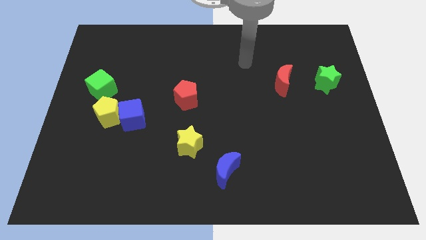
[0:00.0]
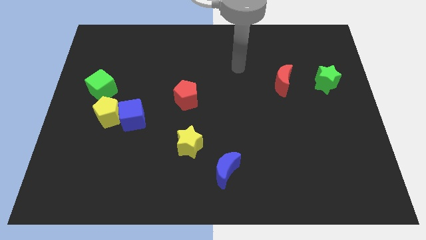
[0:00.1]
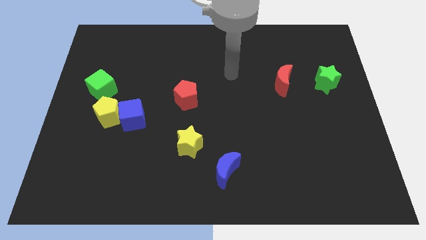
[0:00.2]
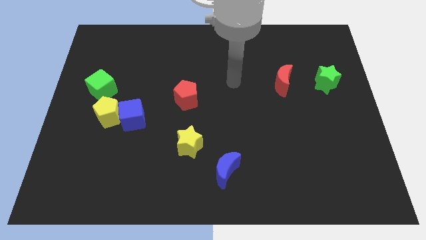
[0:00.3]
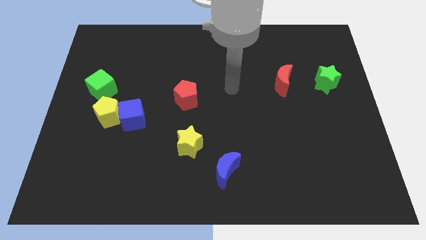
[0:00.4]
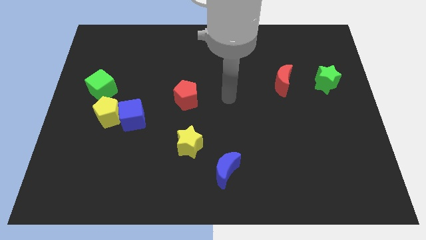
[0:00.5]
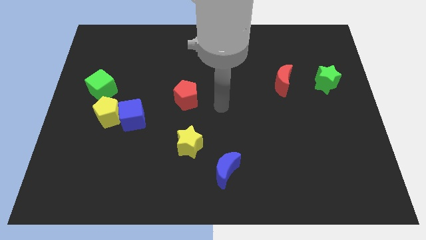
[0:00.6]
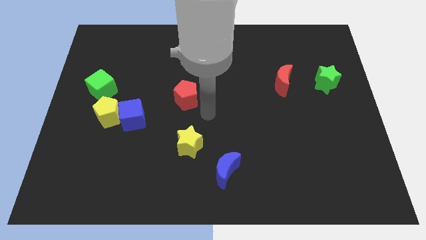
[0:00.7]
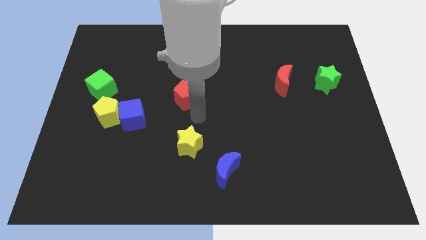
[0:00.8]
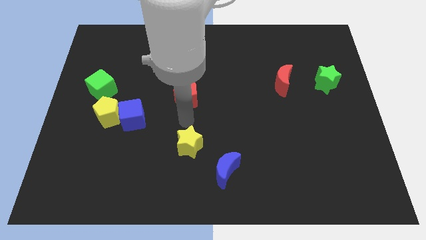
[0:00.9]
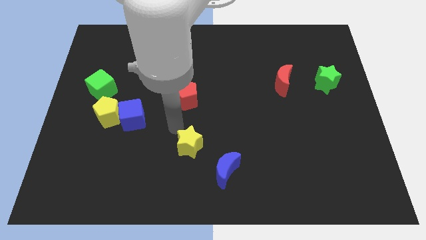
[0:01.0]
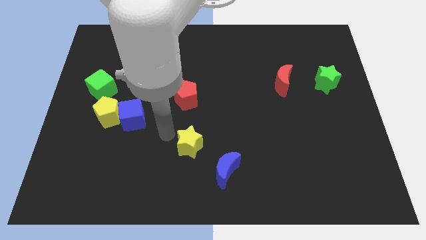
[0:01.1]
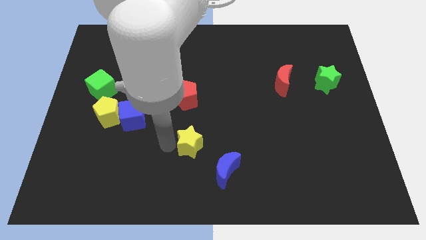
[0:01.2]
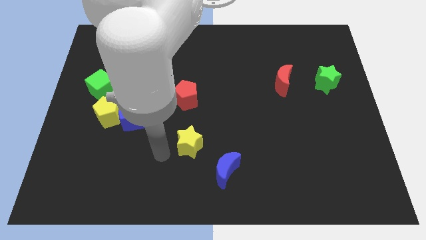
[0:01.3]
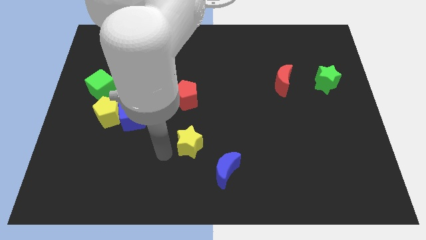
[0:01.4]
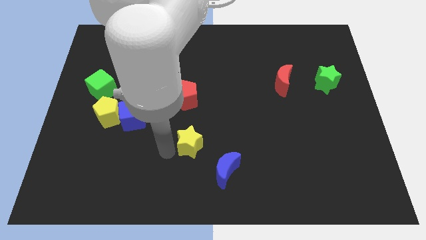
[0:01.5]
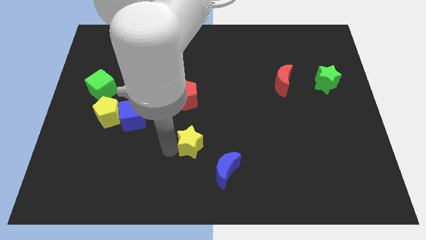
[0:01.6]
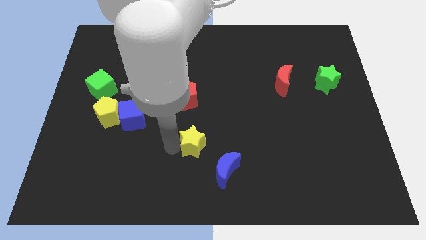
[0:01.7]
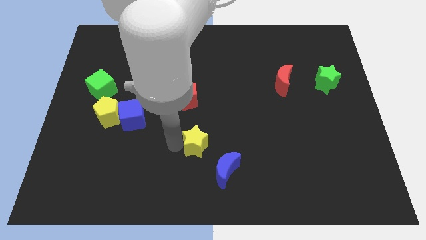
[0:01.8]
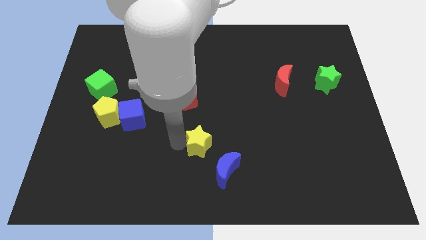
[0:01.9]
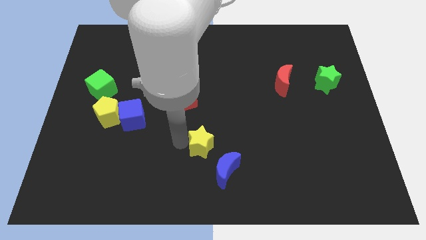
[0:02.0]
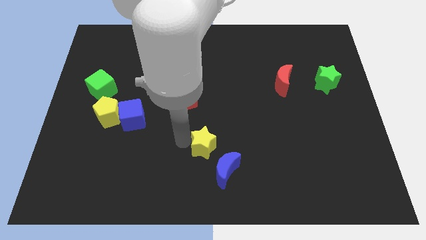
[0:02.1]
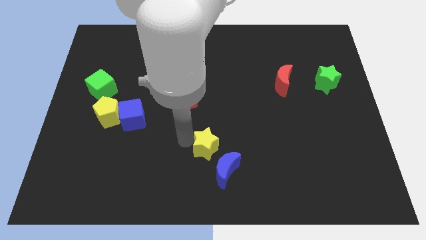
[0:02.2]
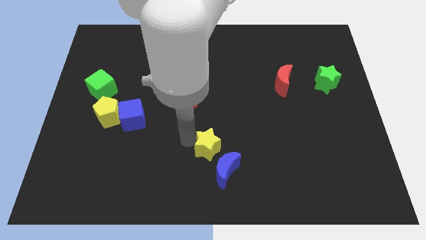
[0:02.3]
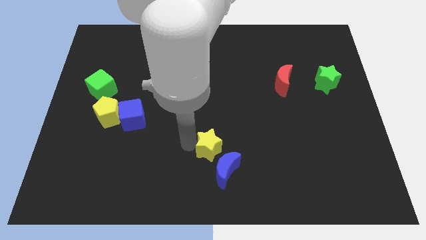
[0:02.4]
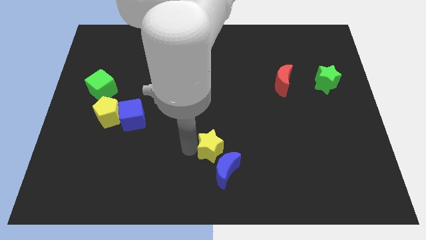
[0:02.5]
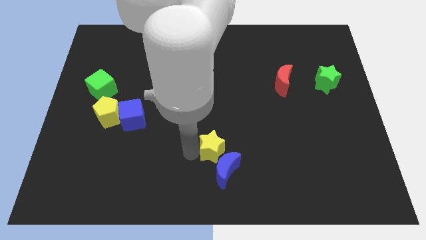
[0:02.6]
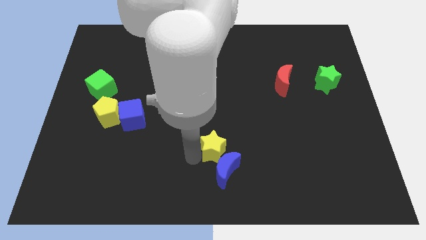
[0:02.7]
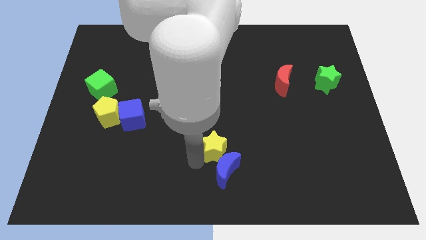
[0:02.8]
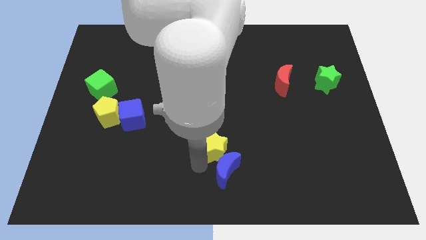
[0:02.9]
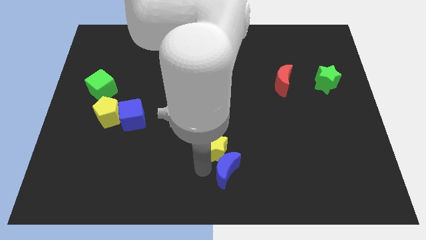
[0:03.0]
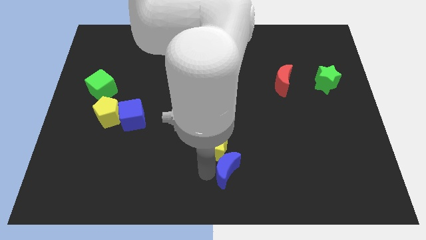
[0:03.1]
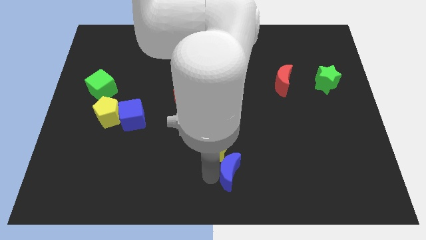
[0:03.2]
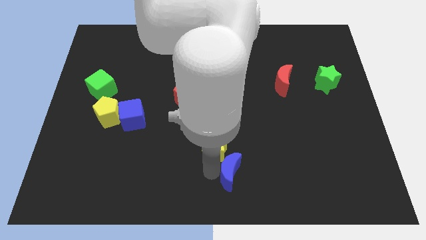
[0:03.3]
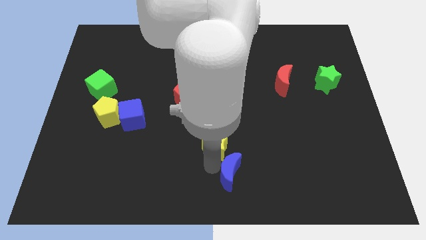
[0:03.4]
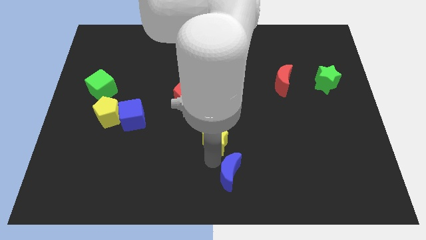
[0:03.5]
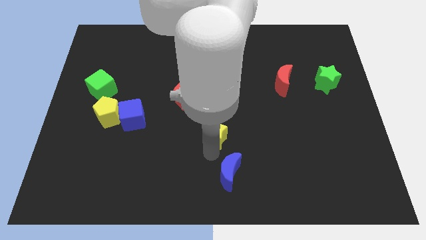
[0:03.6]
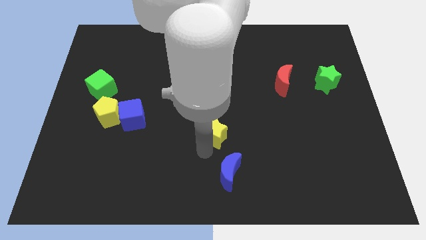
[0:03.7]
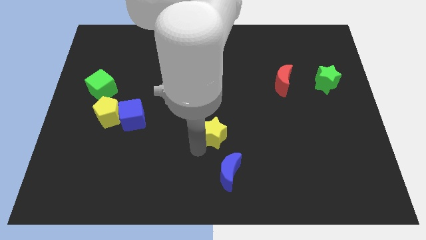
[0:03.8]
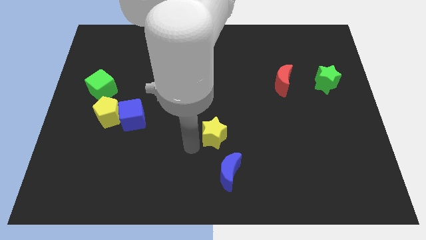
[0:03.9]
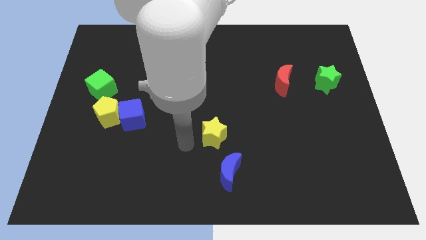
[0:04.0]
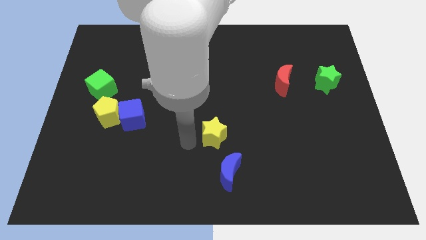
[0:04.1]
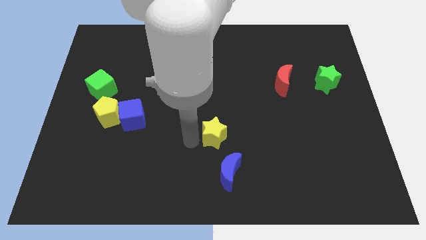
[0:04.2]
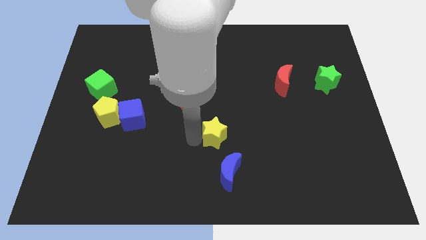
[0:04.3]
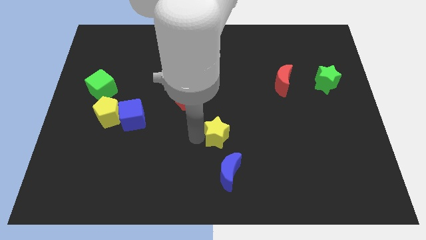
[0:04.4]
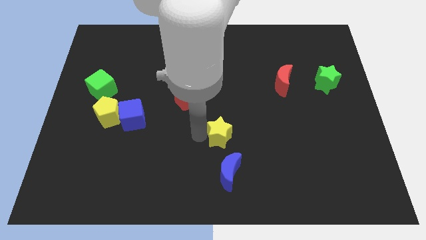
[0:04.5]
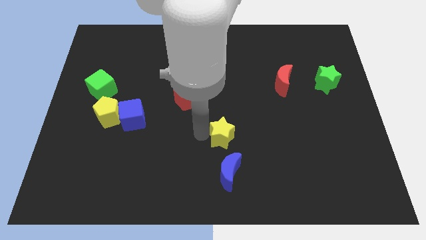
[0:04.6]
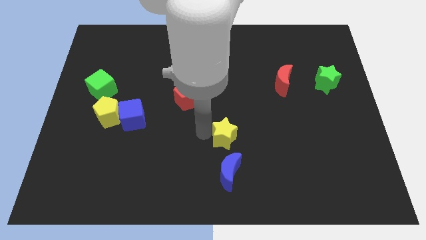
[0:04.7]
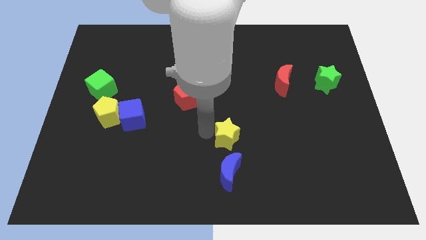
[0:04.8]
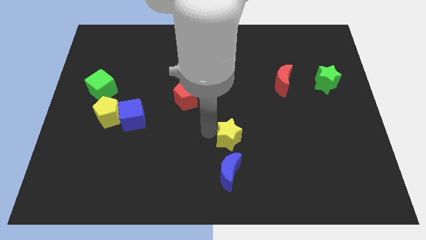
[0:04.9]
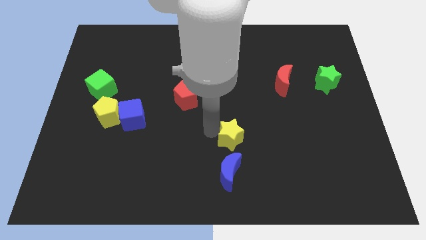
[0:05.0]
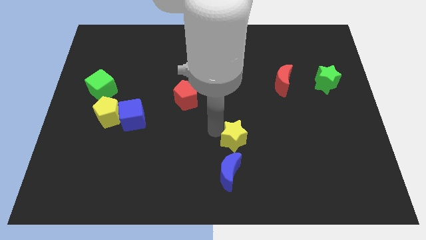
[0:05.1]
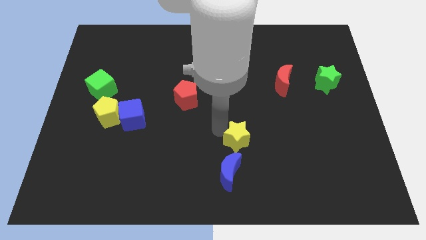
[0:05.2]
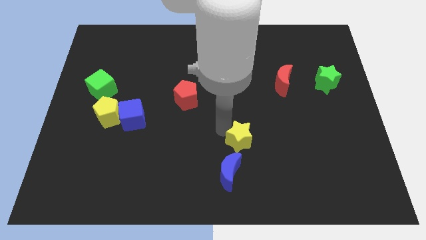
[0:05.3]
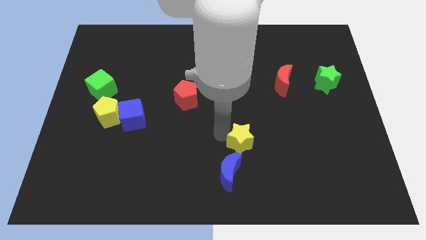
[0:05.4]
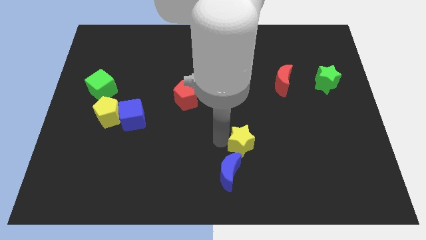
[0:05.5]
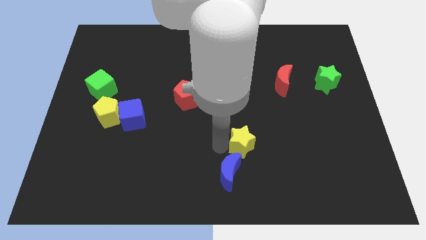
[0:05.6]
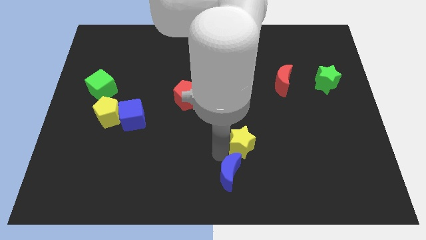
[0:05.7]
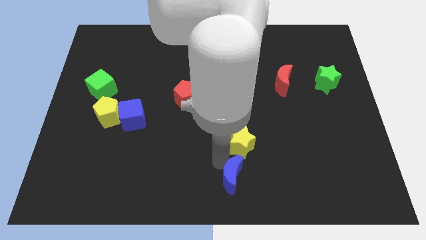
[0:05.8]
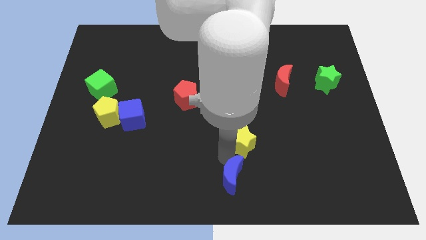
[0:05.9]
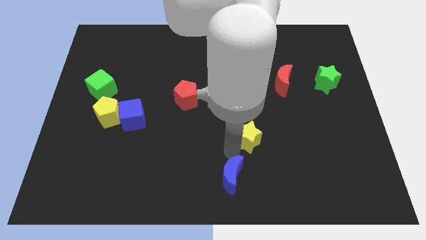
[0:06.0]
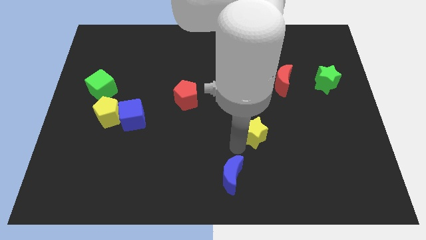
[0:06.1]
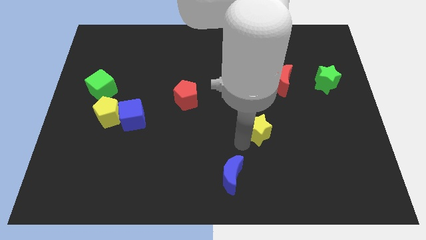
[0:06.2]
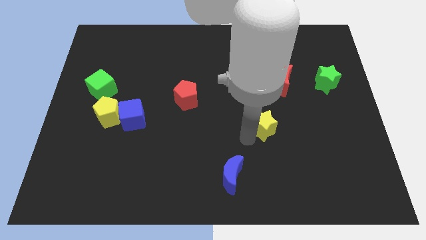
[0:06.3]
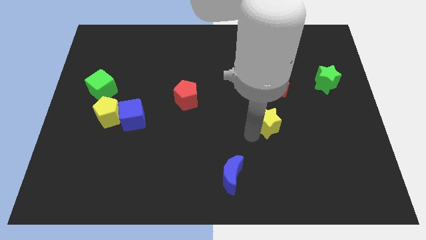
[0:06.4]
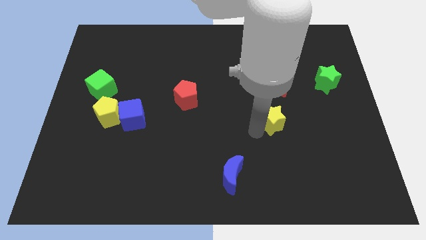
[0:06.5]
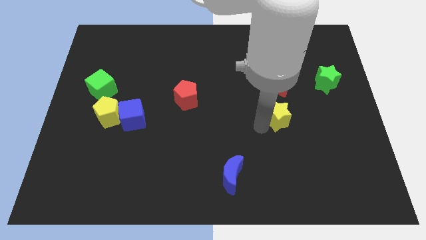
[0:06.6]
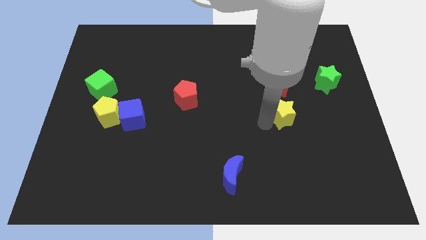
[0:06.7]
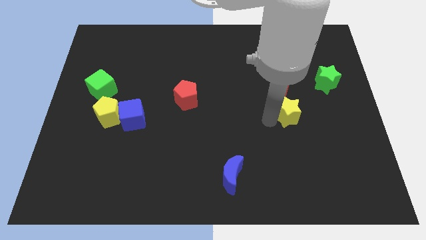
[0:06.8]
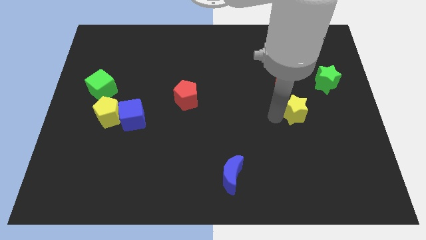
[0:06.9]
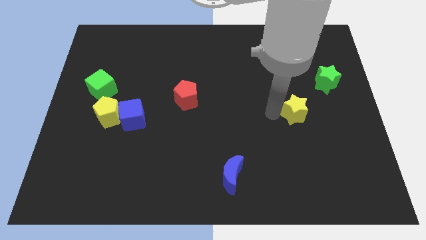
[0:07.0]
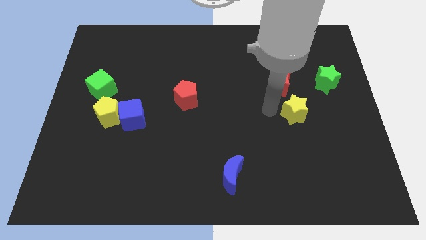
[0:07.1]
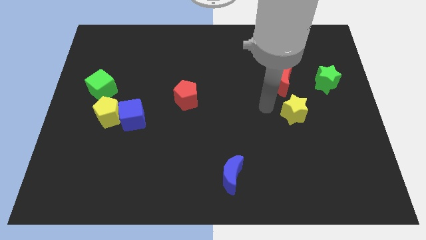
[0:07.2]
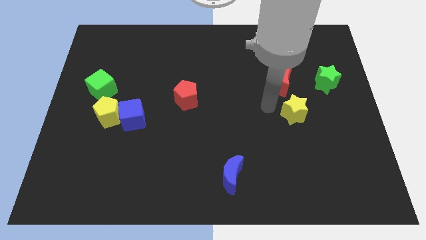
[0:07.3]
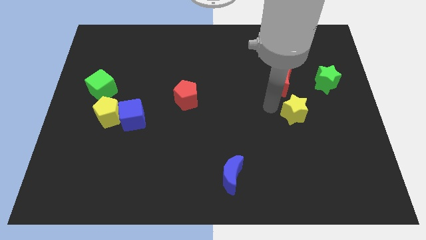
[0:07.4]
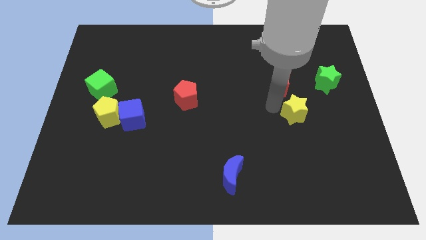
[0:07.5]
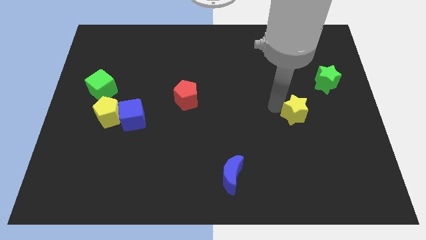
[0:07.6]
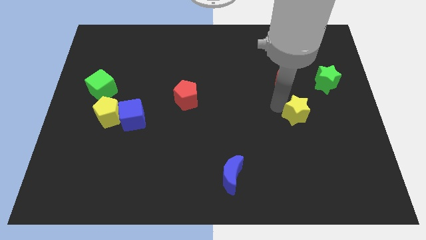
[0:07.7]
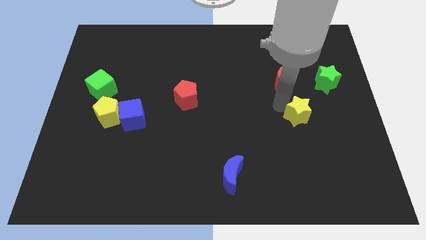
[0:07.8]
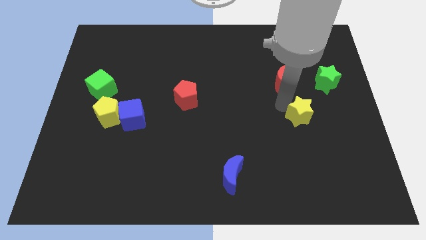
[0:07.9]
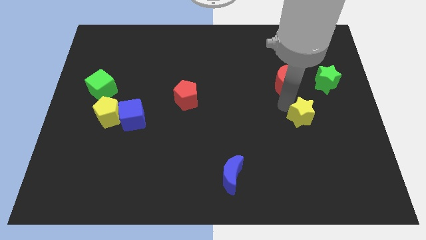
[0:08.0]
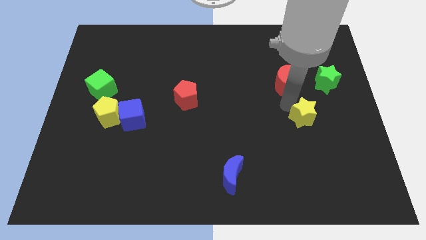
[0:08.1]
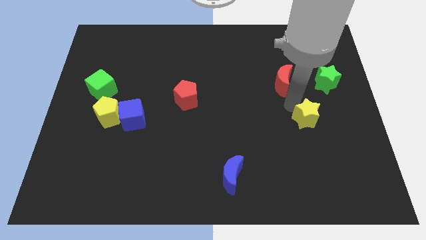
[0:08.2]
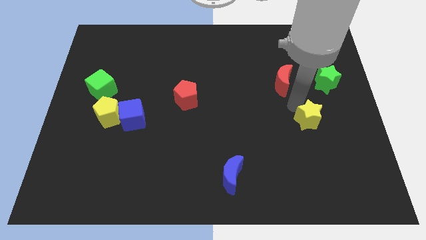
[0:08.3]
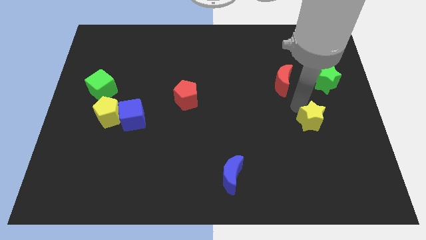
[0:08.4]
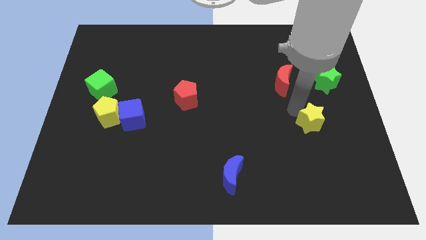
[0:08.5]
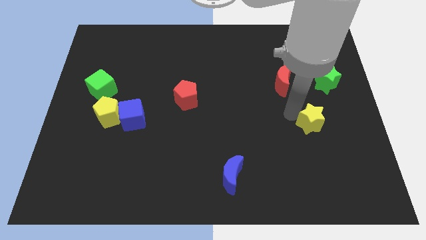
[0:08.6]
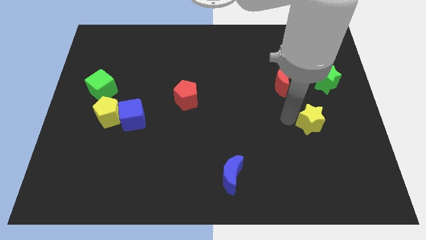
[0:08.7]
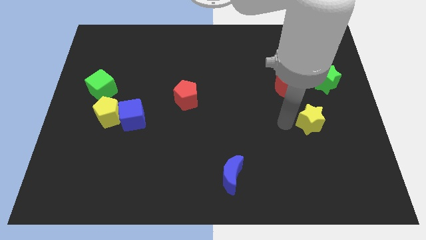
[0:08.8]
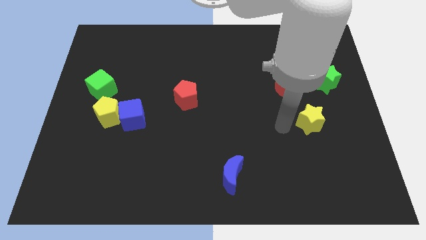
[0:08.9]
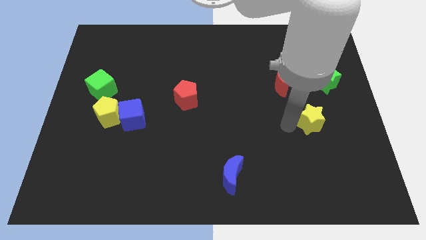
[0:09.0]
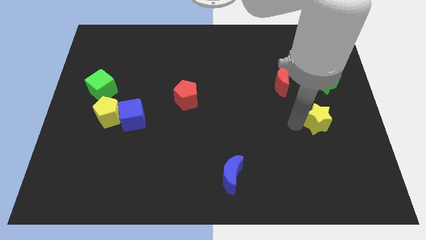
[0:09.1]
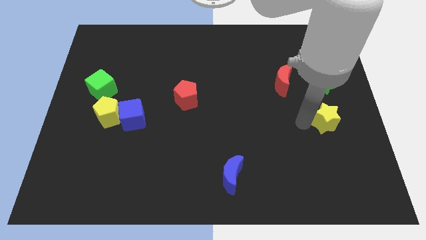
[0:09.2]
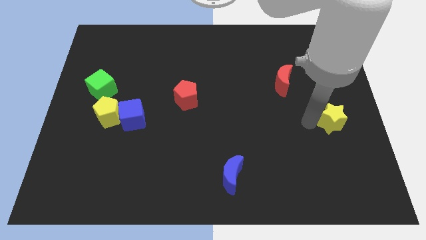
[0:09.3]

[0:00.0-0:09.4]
move the yellow star to the right side
